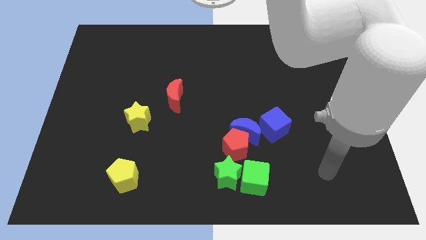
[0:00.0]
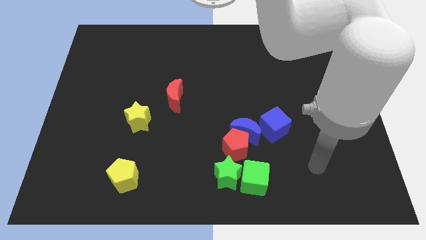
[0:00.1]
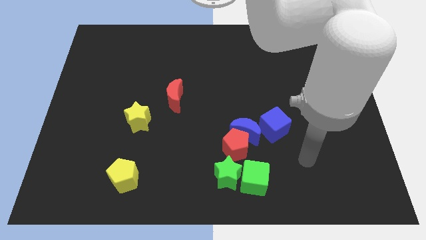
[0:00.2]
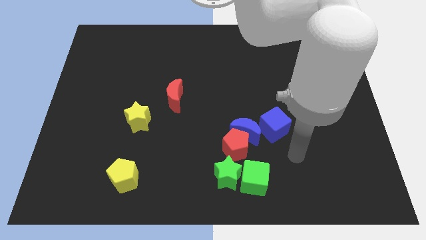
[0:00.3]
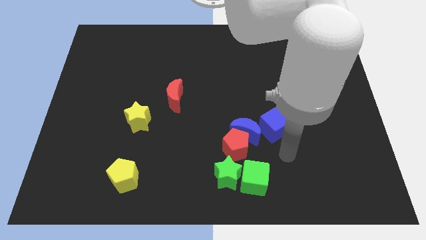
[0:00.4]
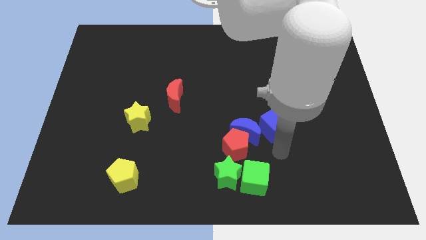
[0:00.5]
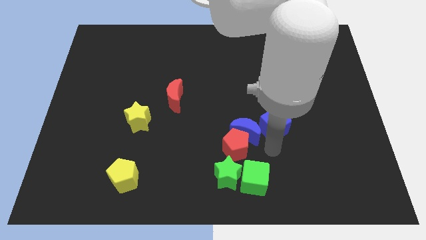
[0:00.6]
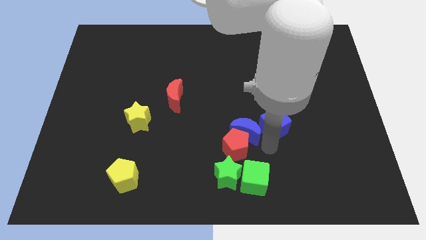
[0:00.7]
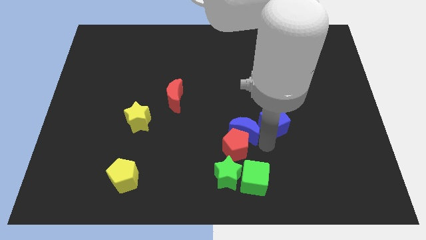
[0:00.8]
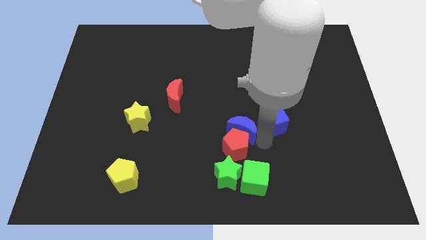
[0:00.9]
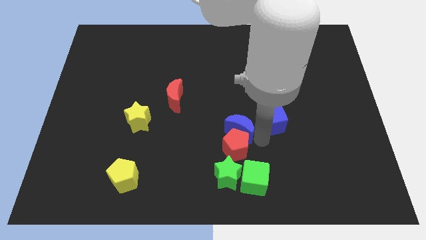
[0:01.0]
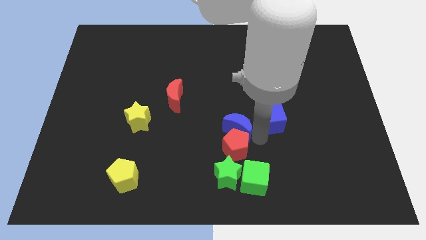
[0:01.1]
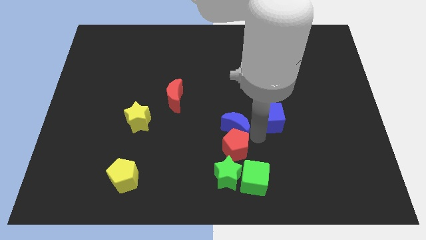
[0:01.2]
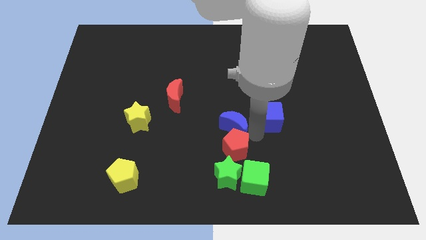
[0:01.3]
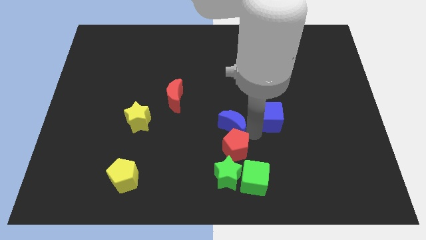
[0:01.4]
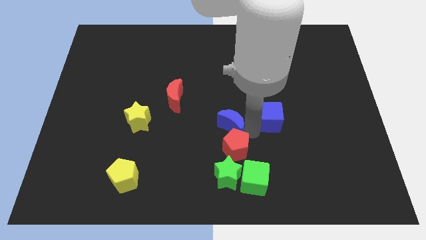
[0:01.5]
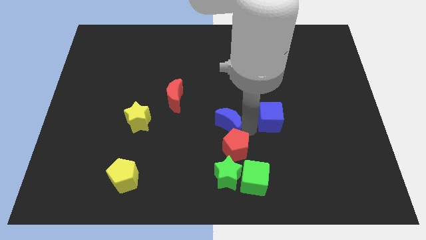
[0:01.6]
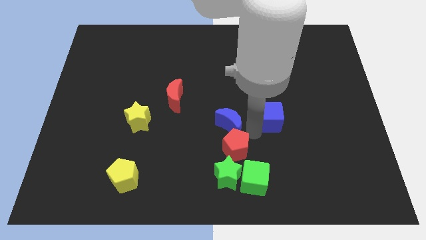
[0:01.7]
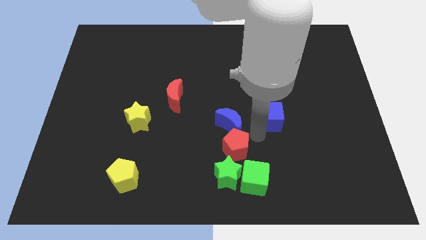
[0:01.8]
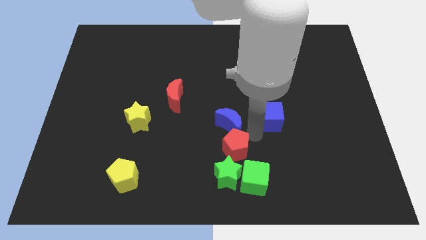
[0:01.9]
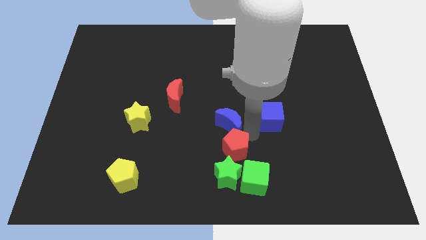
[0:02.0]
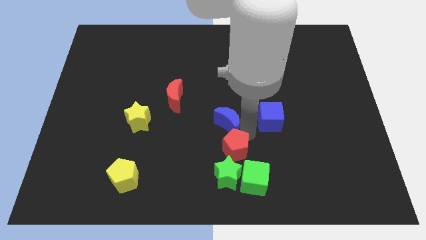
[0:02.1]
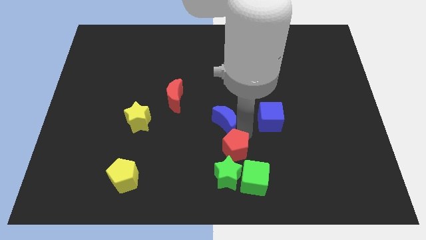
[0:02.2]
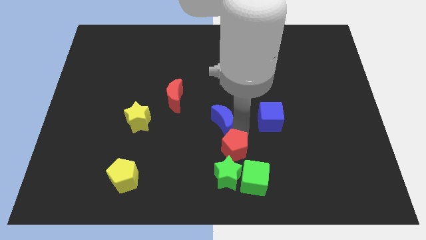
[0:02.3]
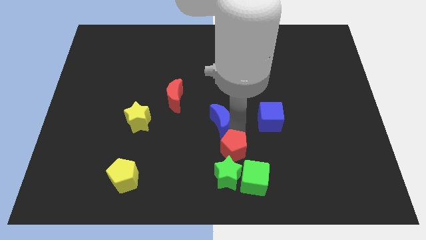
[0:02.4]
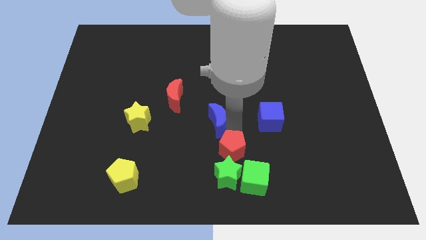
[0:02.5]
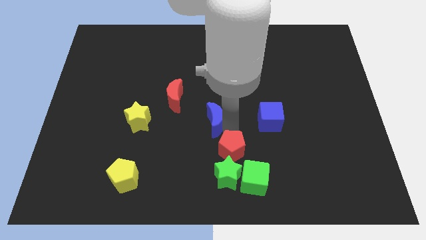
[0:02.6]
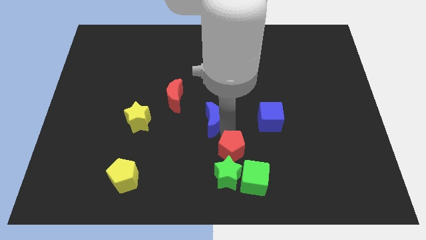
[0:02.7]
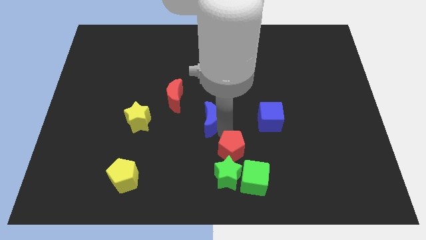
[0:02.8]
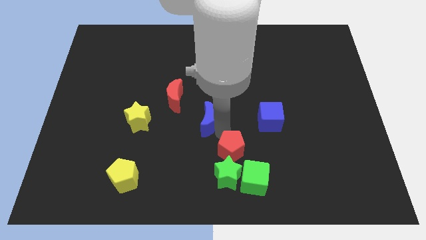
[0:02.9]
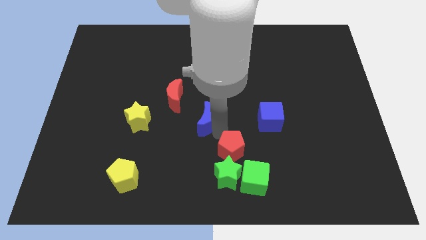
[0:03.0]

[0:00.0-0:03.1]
pull the blue moon apart from the red pentagon and blue cube

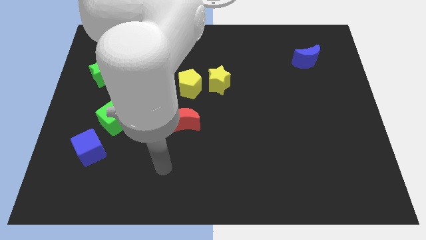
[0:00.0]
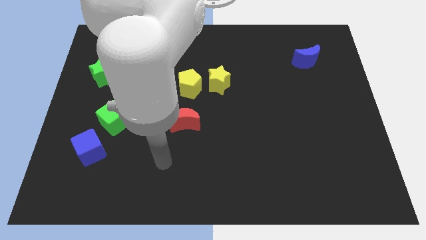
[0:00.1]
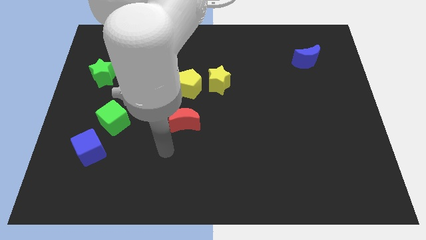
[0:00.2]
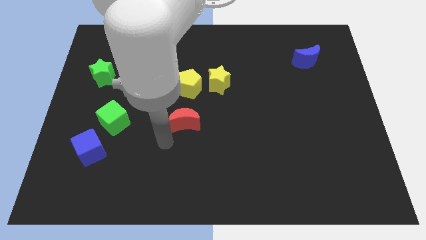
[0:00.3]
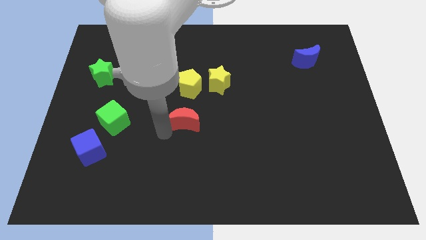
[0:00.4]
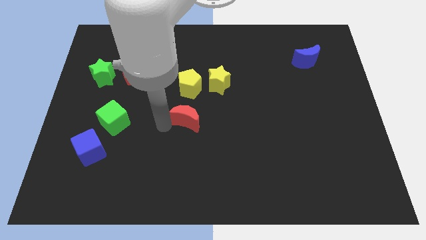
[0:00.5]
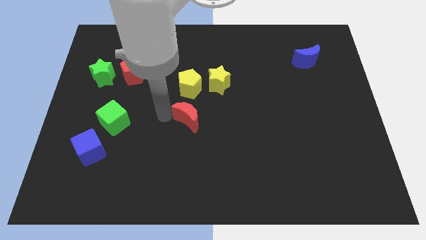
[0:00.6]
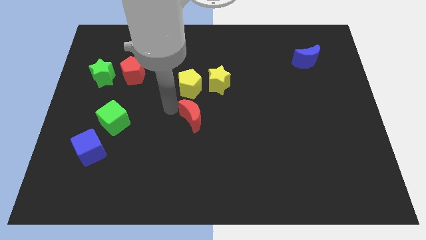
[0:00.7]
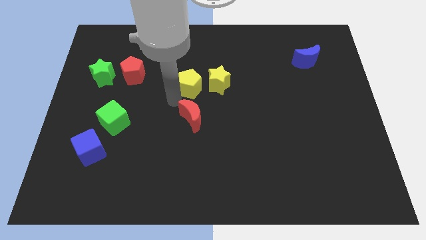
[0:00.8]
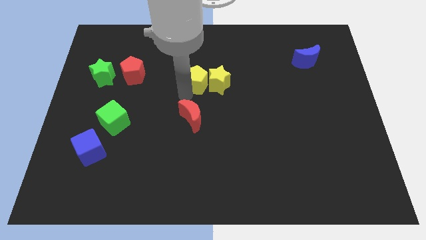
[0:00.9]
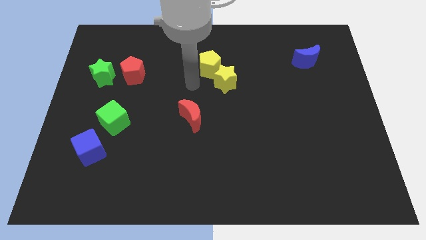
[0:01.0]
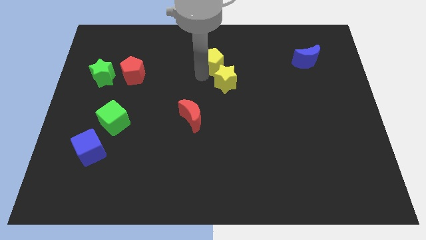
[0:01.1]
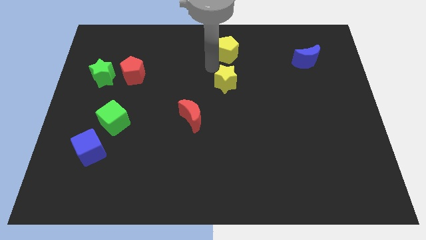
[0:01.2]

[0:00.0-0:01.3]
pull the yellow star apart from the yellow pentagon

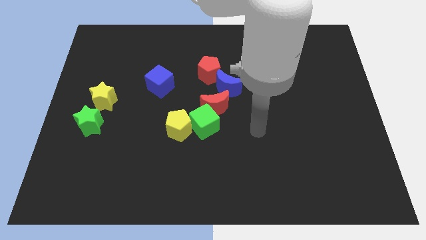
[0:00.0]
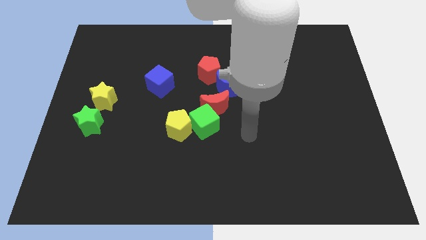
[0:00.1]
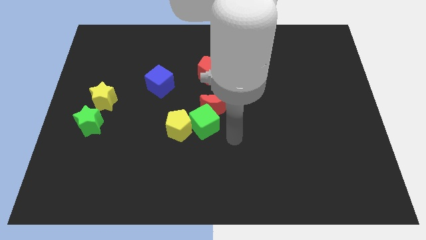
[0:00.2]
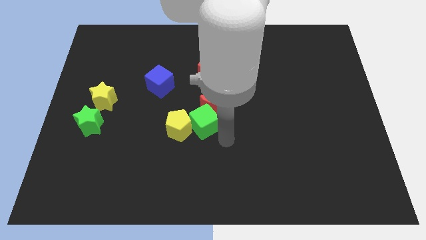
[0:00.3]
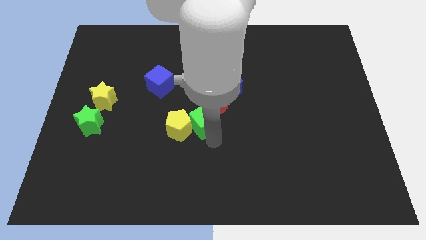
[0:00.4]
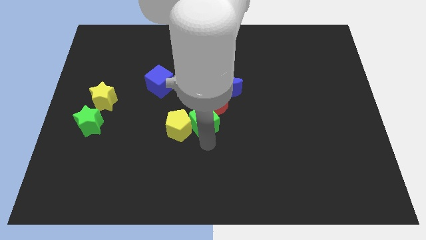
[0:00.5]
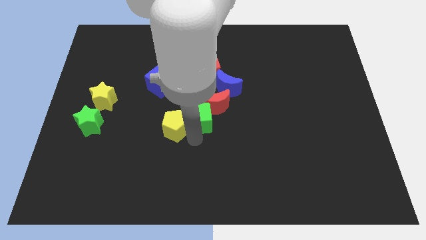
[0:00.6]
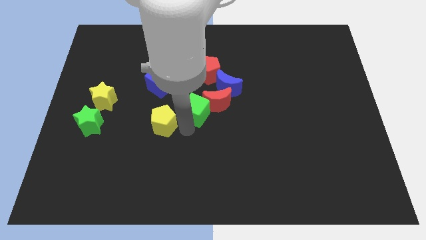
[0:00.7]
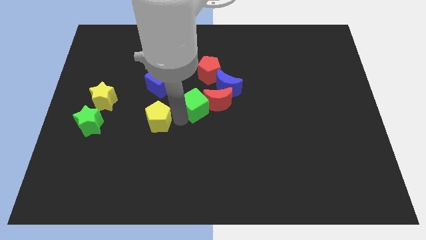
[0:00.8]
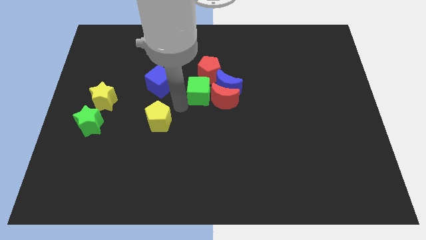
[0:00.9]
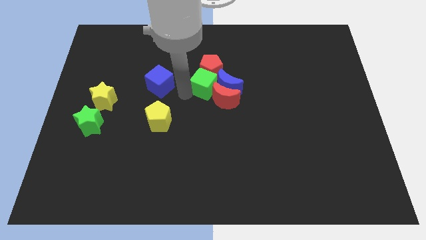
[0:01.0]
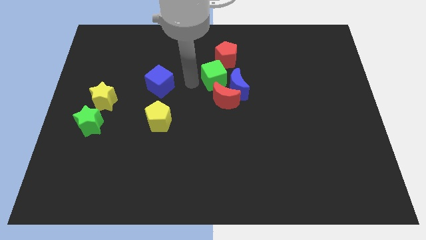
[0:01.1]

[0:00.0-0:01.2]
move the green cube away from the red moon and yellow pentagon

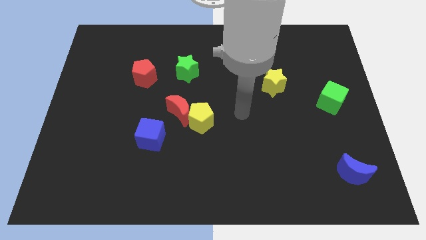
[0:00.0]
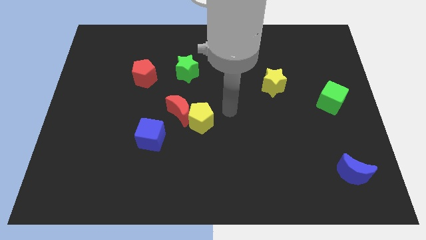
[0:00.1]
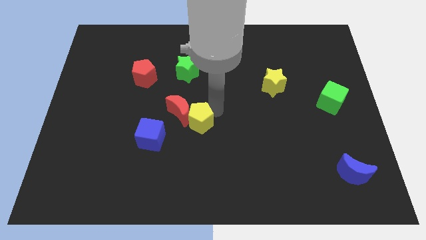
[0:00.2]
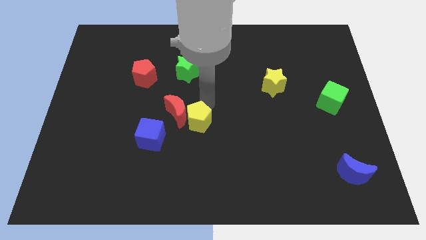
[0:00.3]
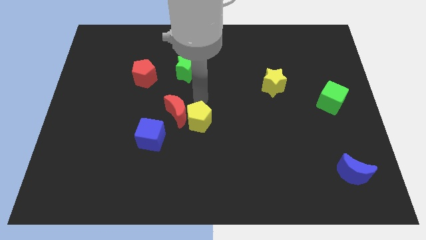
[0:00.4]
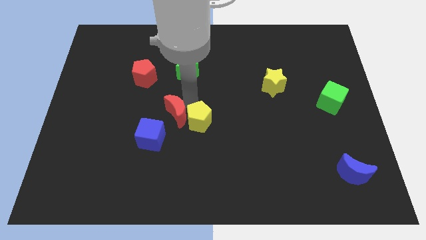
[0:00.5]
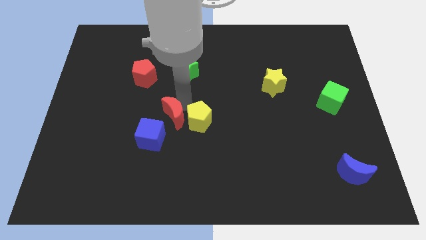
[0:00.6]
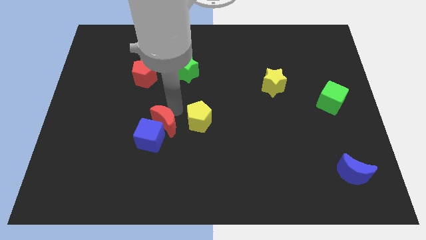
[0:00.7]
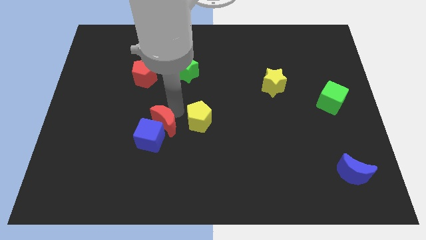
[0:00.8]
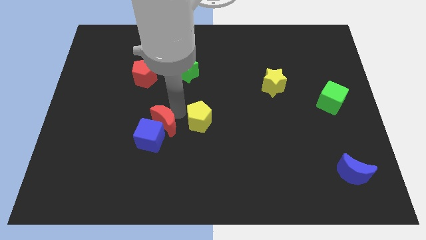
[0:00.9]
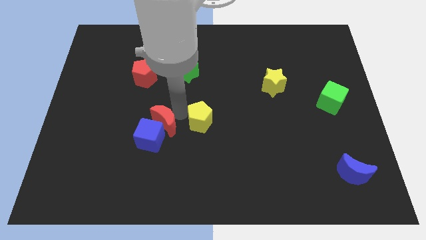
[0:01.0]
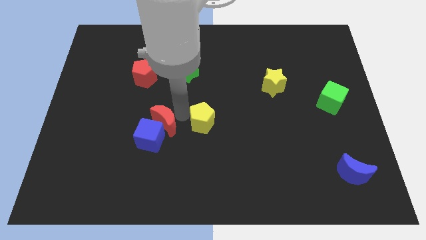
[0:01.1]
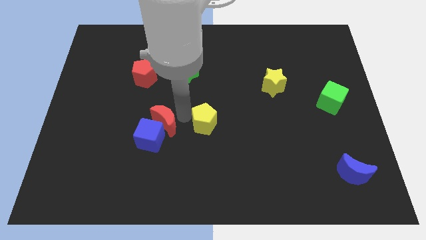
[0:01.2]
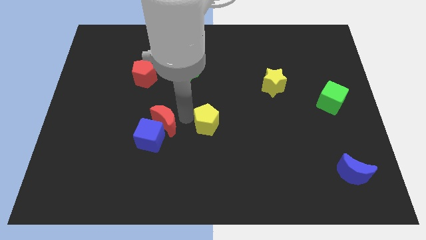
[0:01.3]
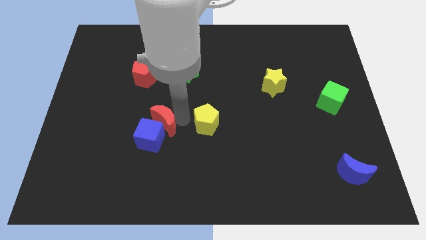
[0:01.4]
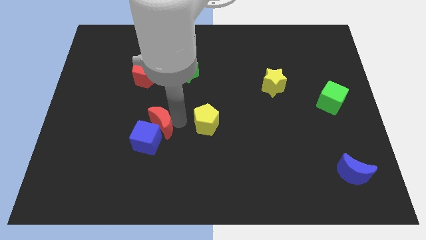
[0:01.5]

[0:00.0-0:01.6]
pull the yellow pentagon apart from the red moon

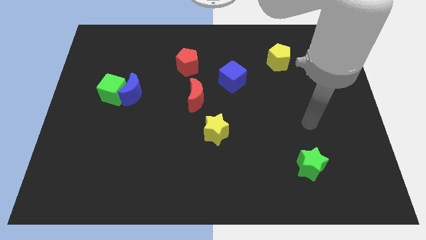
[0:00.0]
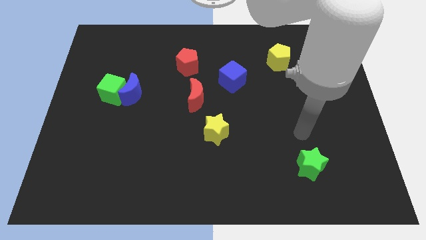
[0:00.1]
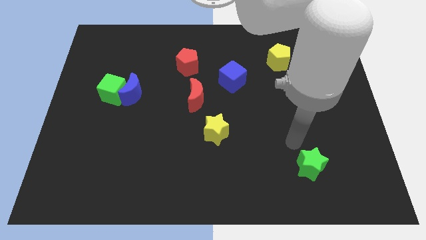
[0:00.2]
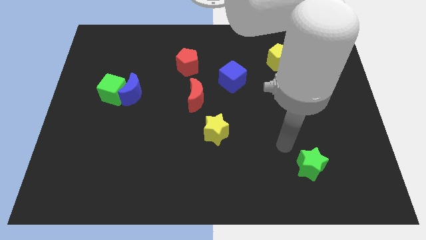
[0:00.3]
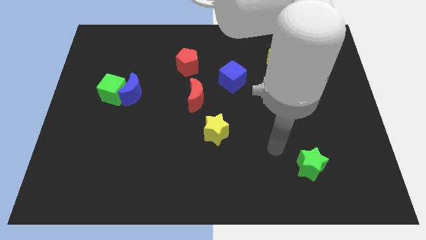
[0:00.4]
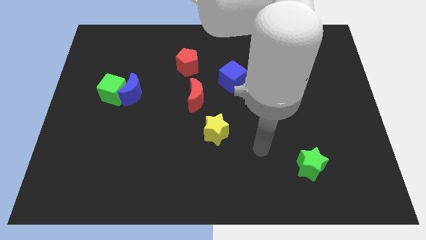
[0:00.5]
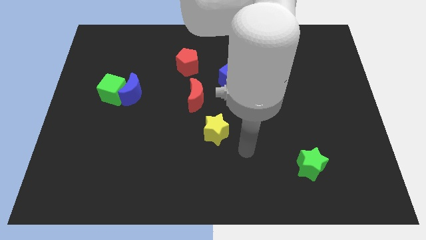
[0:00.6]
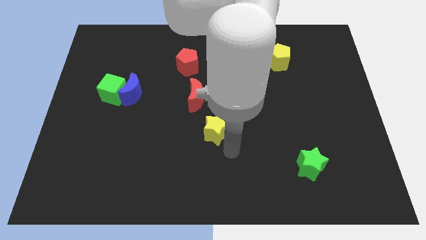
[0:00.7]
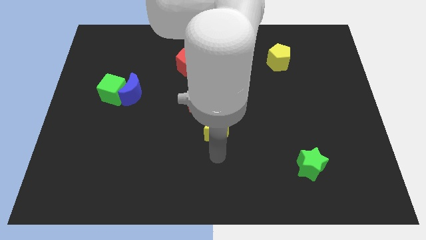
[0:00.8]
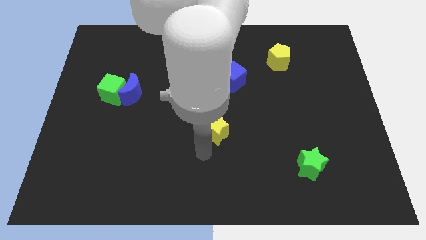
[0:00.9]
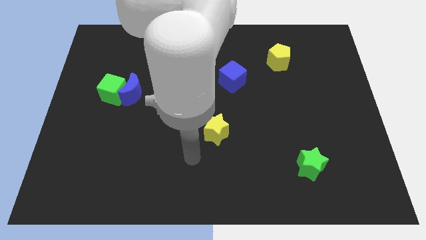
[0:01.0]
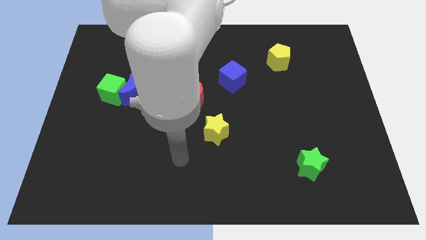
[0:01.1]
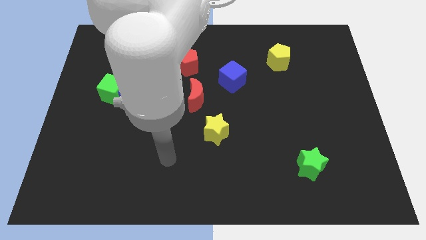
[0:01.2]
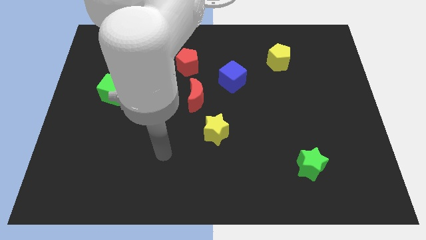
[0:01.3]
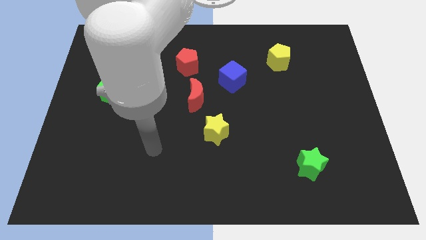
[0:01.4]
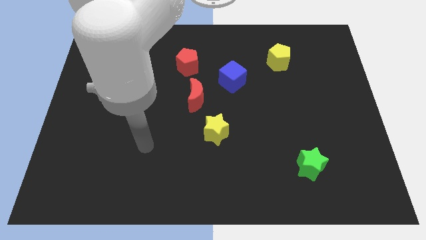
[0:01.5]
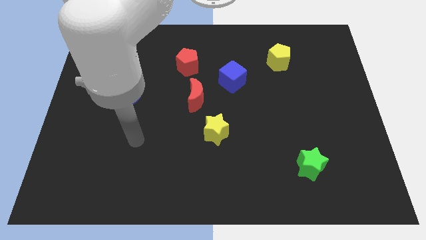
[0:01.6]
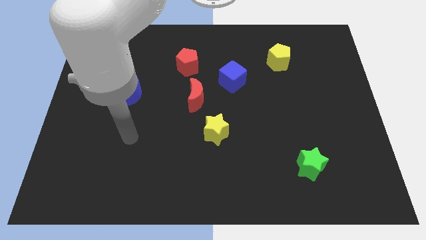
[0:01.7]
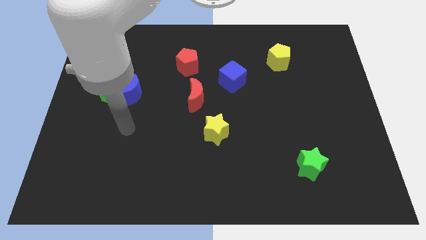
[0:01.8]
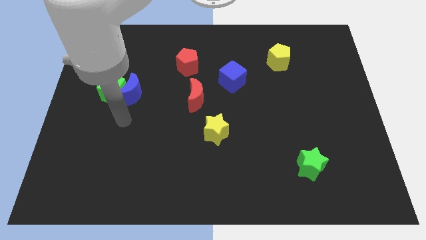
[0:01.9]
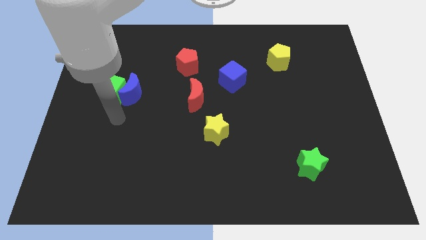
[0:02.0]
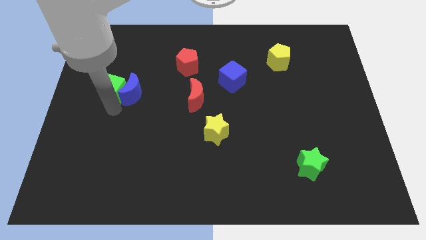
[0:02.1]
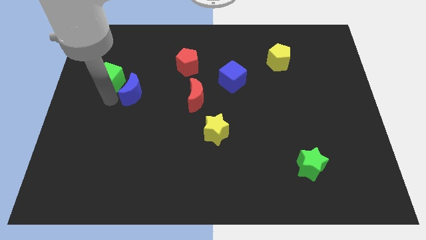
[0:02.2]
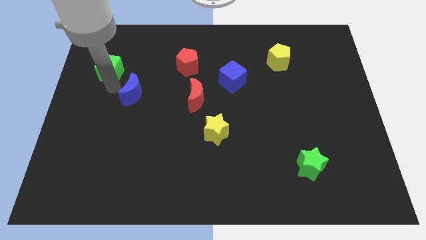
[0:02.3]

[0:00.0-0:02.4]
pull the blue moon apart from the green cube
